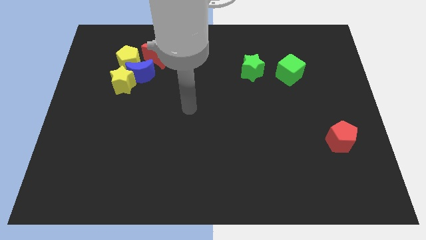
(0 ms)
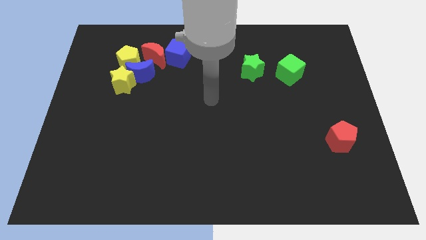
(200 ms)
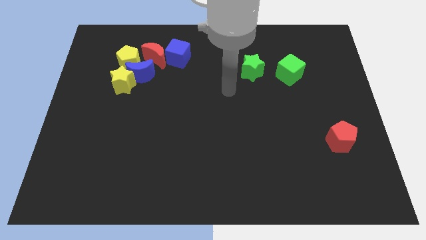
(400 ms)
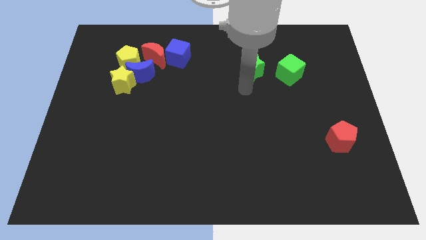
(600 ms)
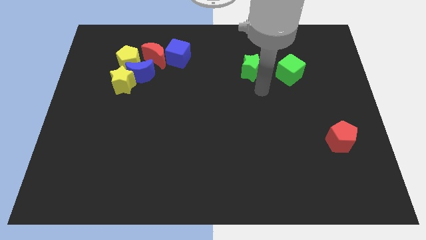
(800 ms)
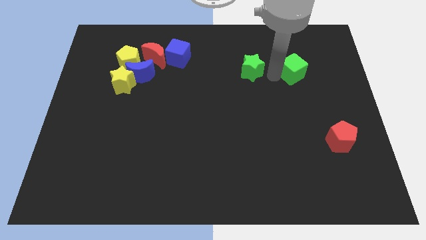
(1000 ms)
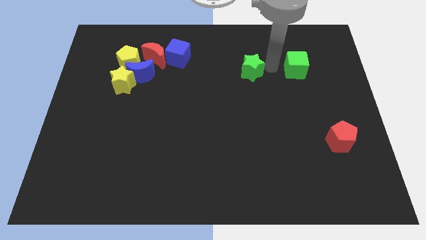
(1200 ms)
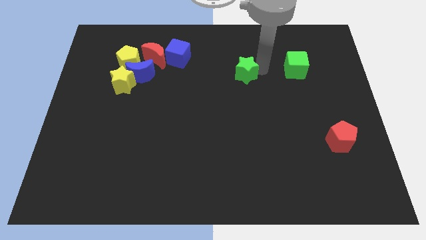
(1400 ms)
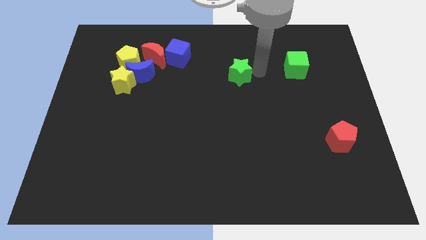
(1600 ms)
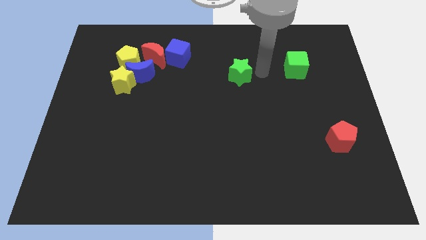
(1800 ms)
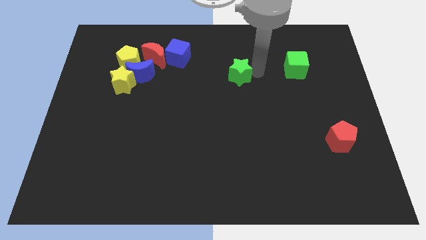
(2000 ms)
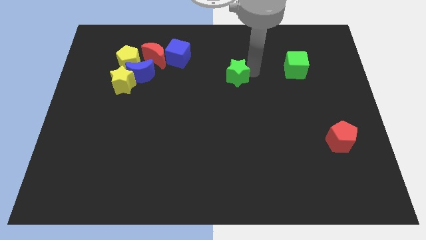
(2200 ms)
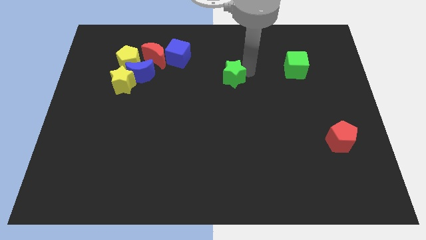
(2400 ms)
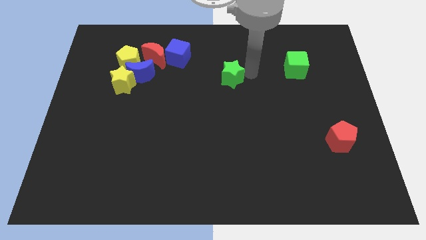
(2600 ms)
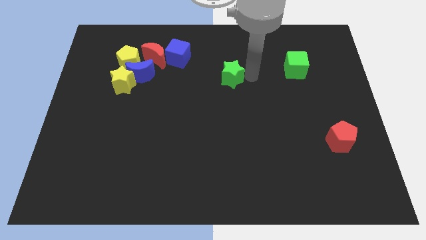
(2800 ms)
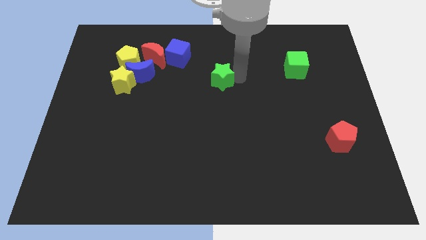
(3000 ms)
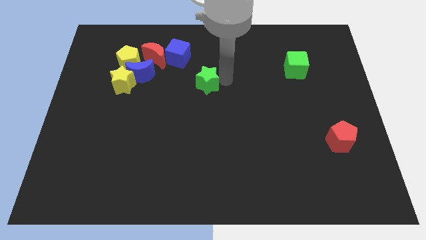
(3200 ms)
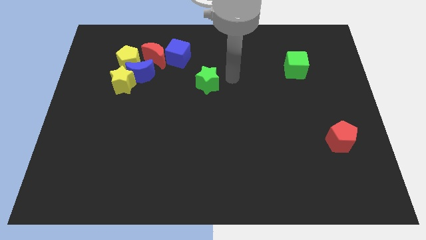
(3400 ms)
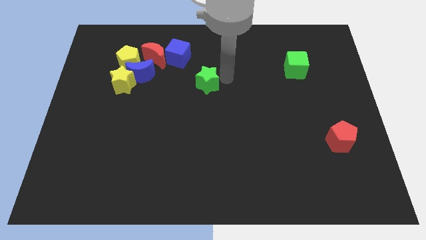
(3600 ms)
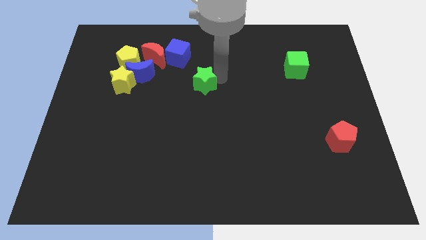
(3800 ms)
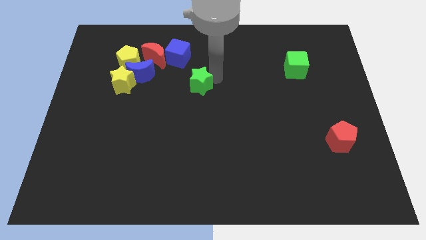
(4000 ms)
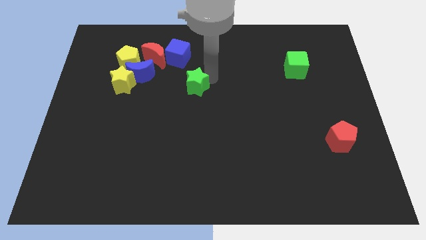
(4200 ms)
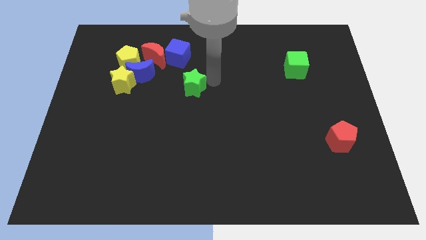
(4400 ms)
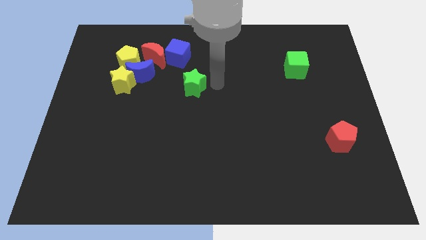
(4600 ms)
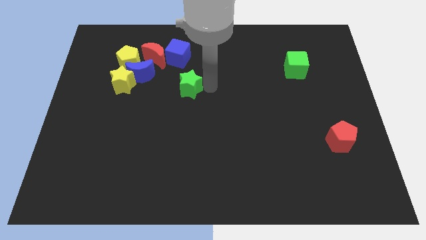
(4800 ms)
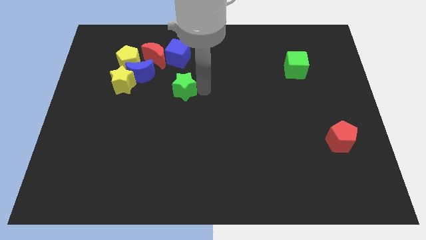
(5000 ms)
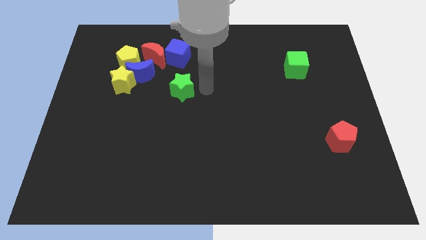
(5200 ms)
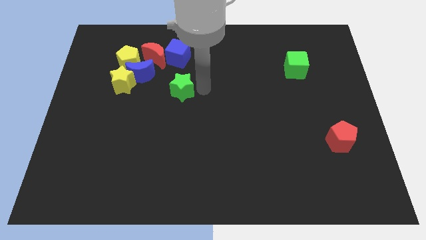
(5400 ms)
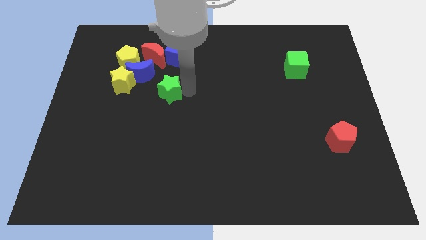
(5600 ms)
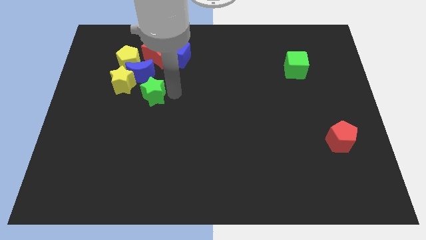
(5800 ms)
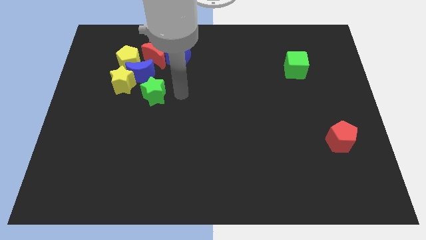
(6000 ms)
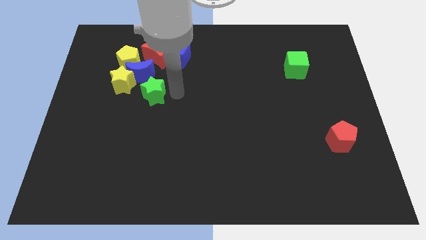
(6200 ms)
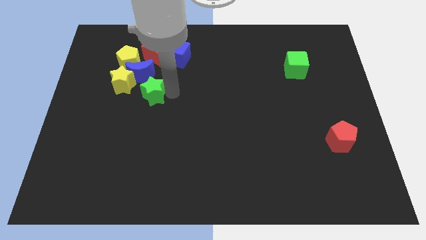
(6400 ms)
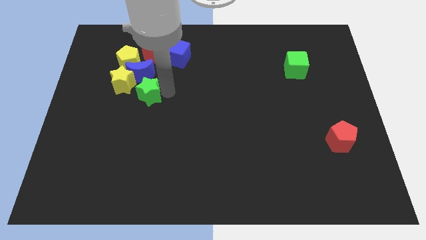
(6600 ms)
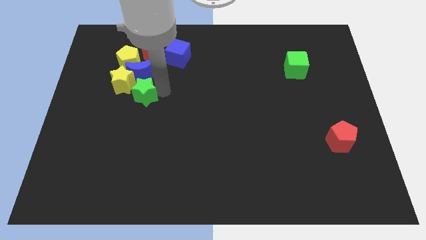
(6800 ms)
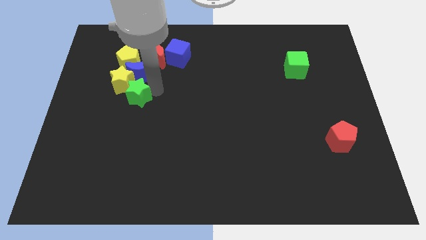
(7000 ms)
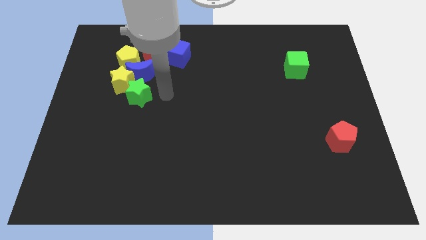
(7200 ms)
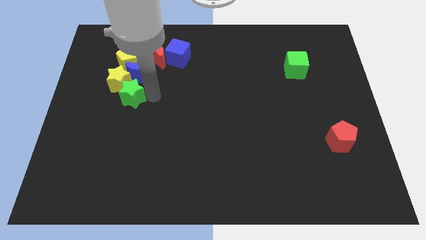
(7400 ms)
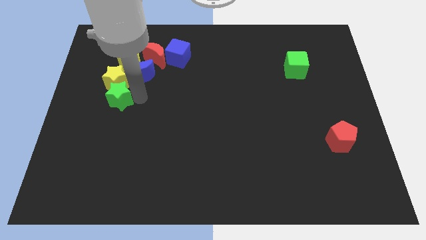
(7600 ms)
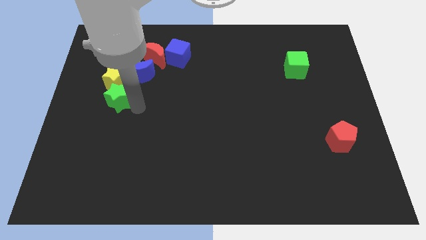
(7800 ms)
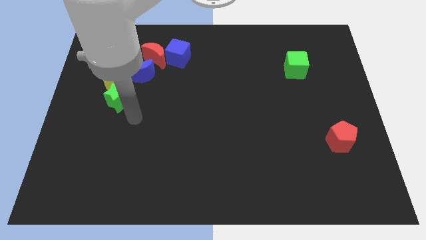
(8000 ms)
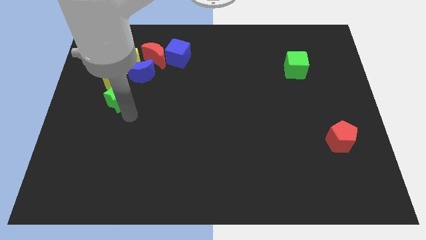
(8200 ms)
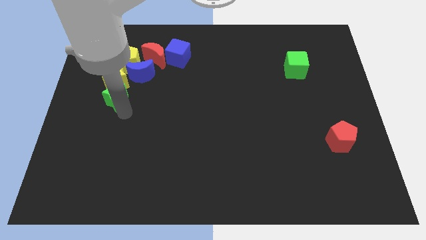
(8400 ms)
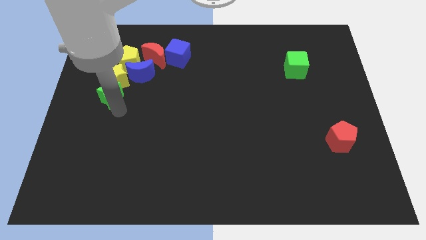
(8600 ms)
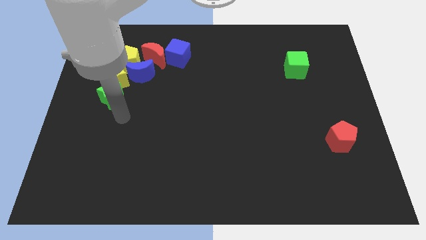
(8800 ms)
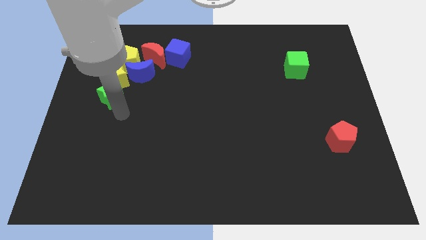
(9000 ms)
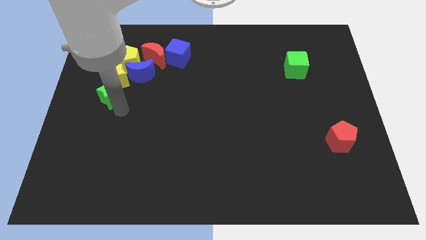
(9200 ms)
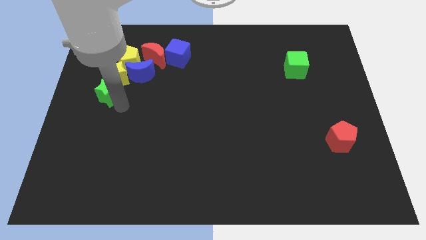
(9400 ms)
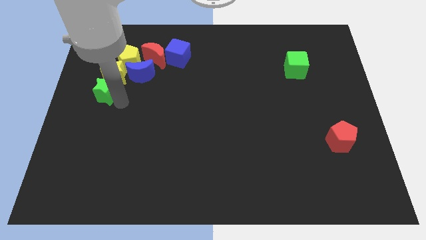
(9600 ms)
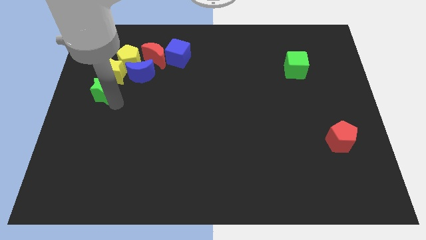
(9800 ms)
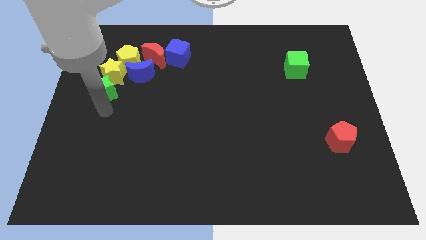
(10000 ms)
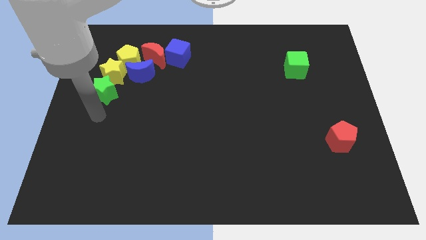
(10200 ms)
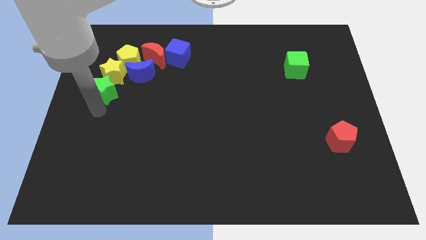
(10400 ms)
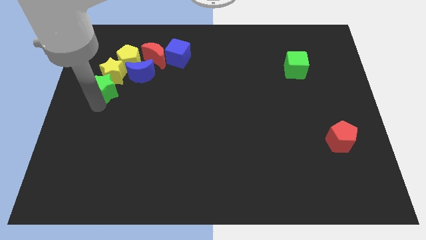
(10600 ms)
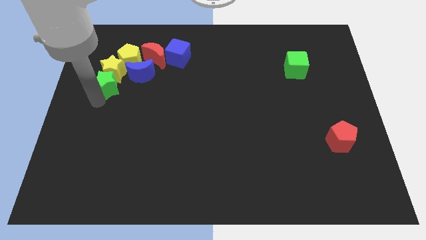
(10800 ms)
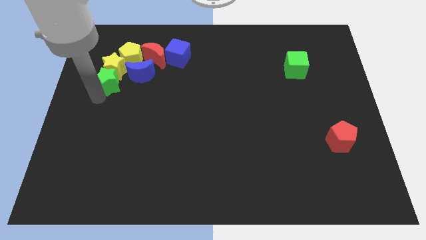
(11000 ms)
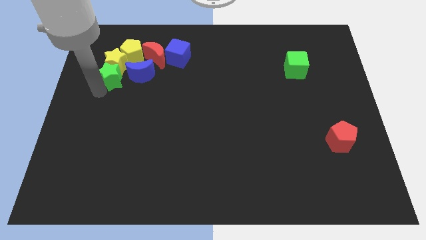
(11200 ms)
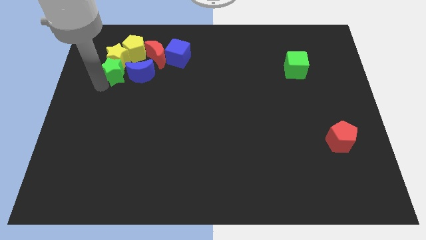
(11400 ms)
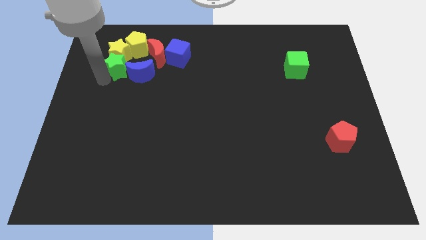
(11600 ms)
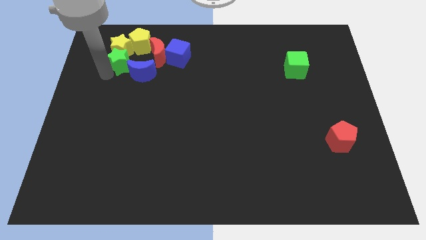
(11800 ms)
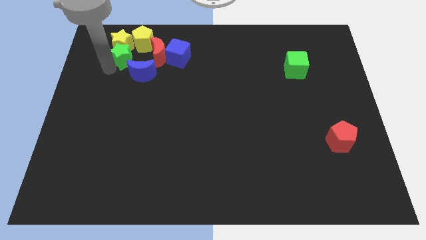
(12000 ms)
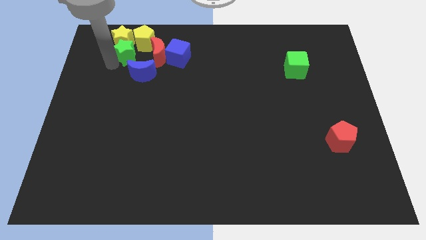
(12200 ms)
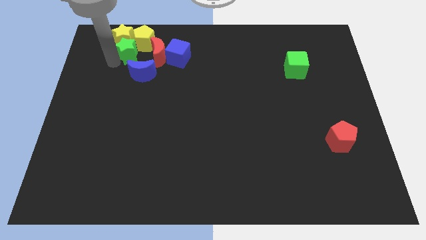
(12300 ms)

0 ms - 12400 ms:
push the green star to the yellow pentagon
